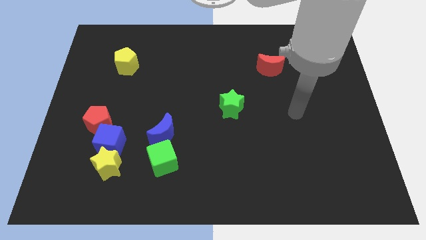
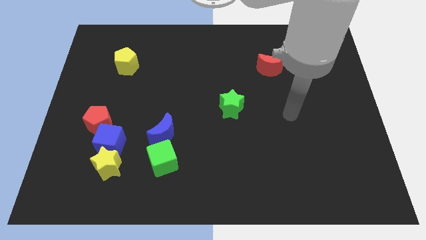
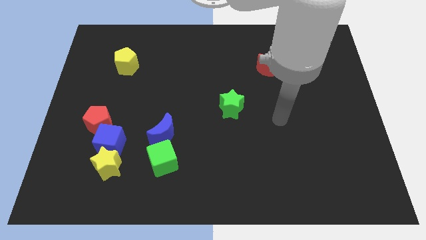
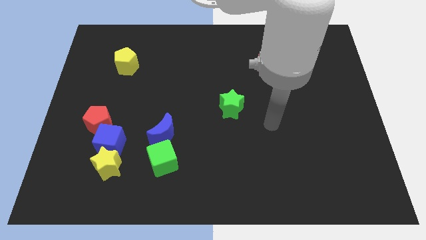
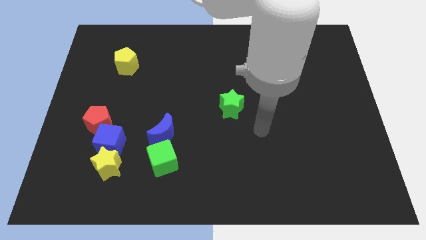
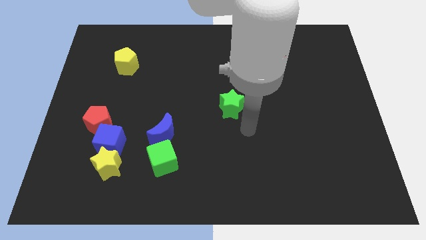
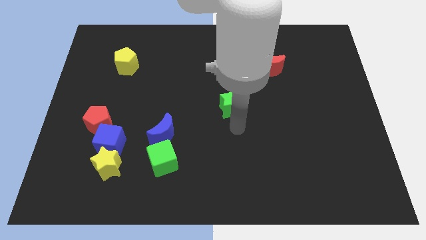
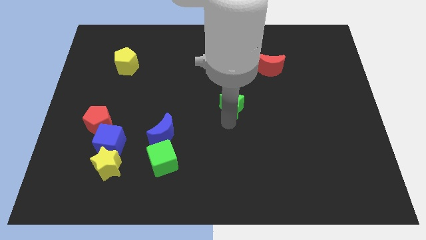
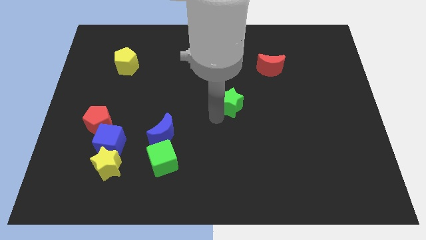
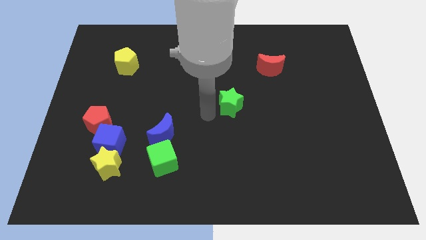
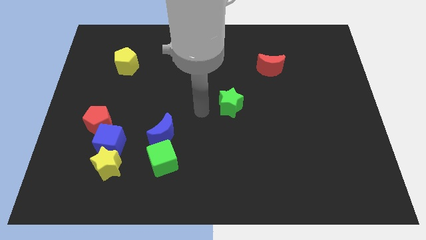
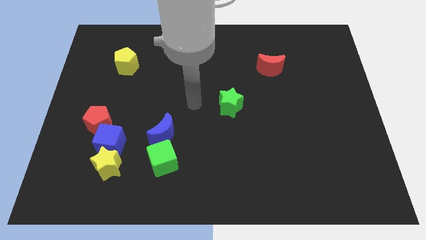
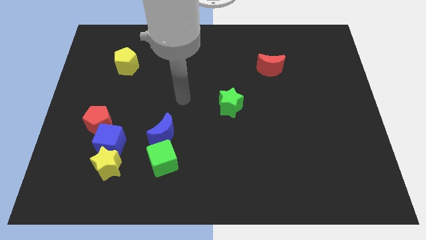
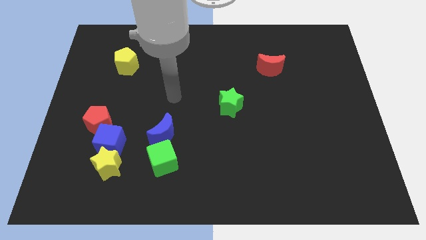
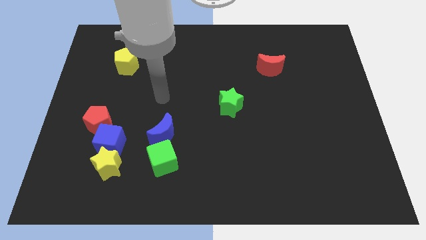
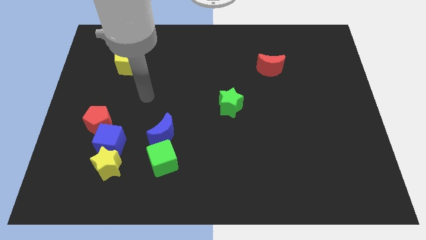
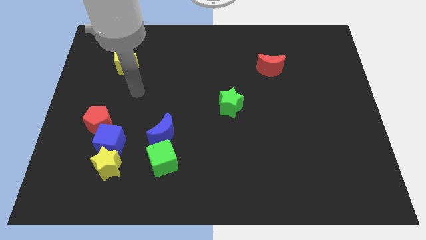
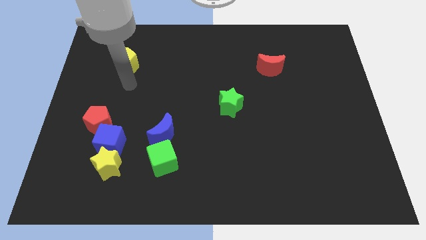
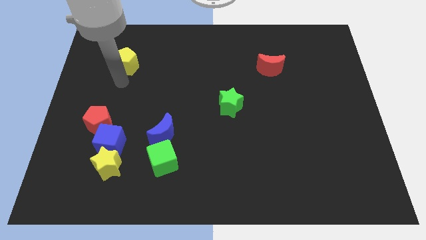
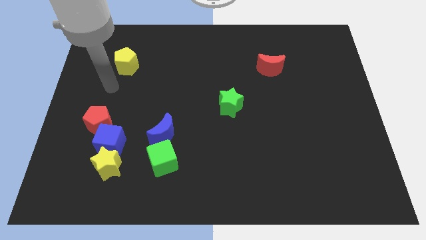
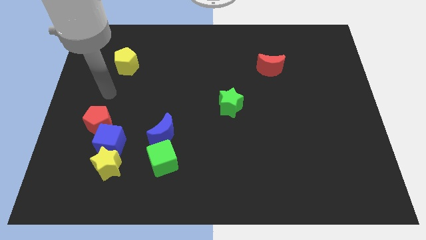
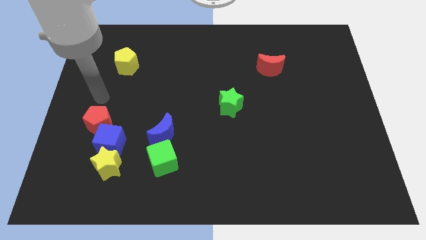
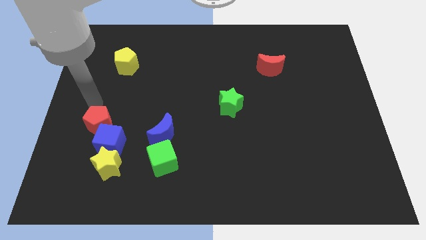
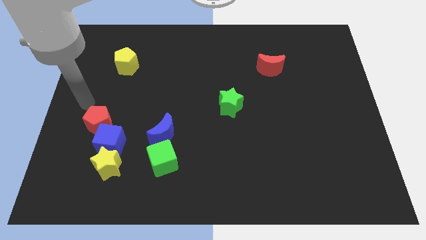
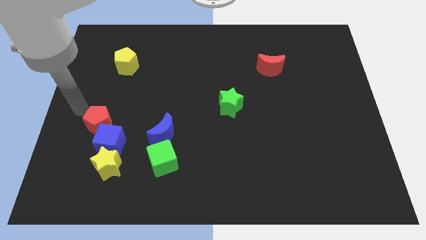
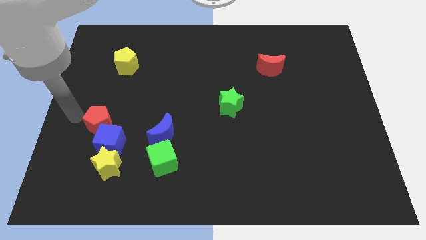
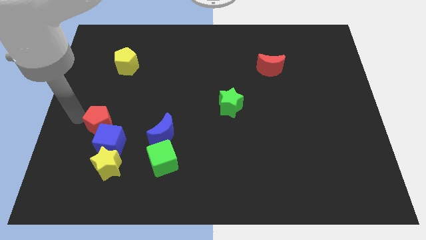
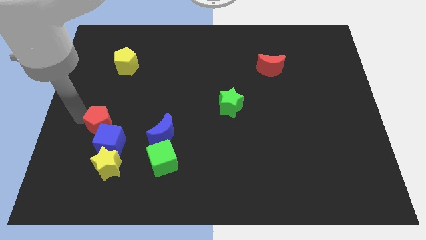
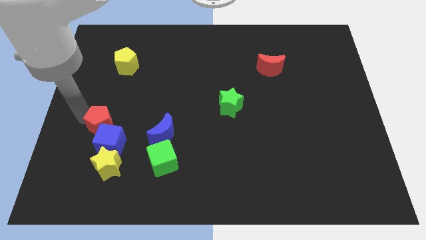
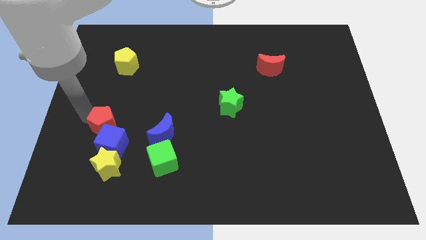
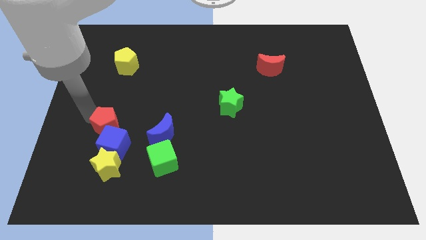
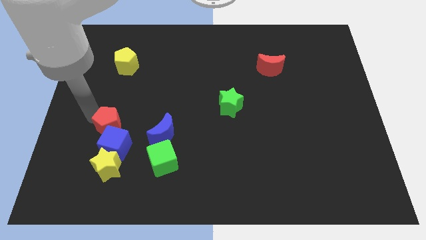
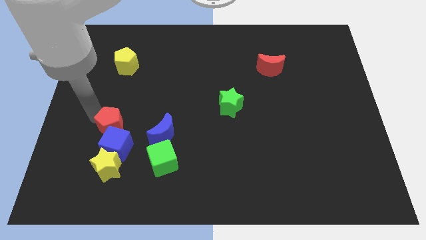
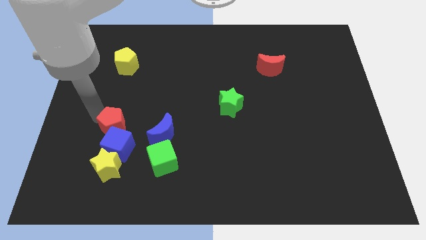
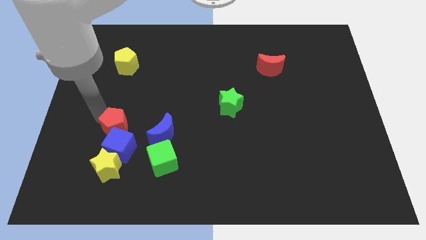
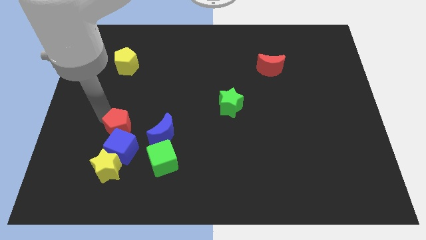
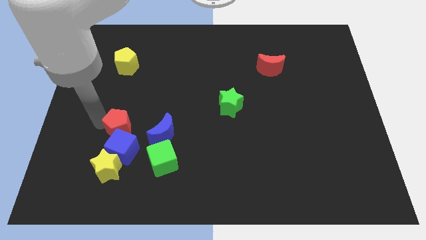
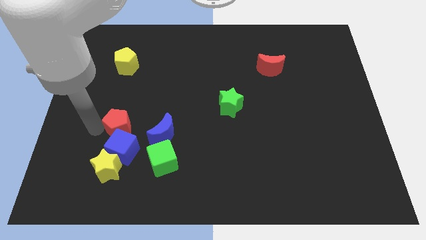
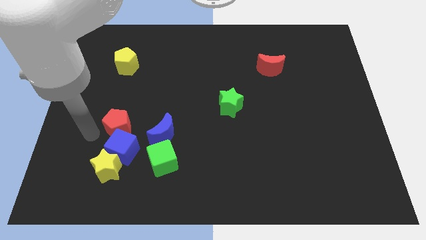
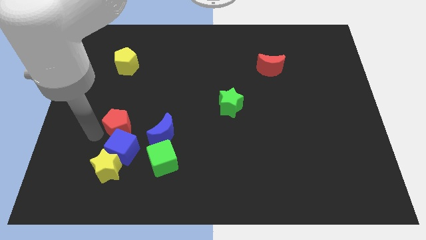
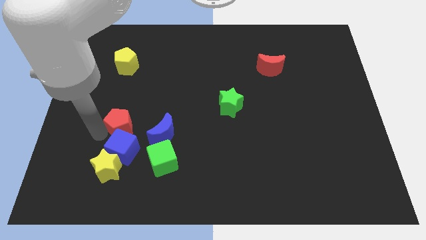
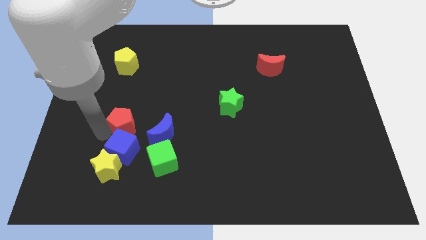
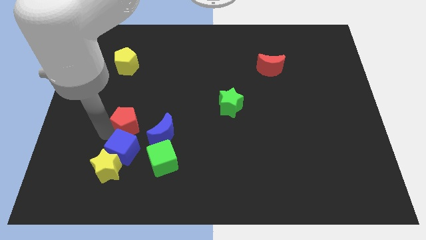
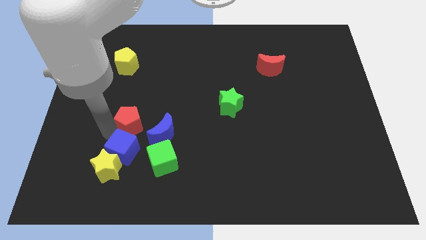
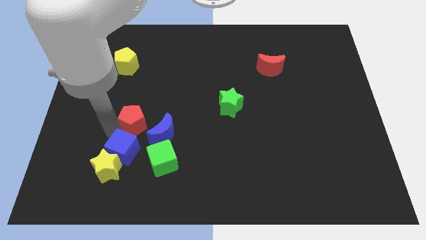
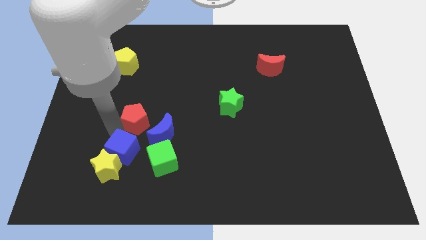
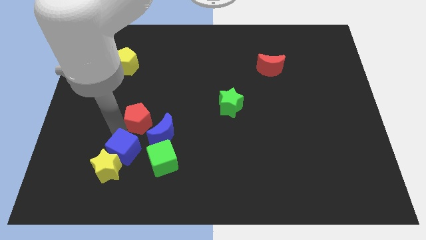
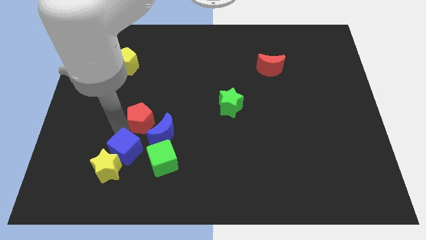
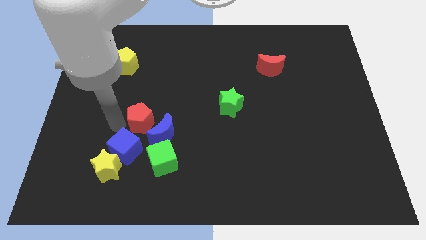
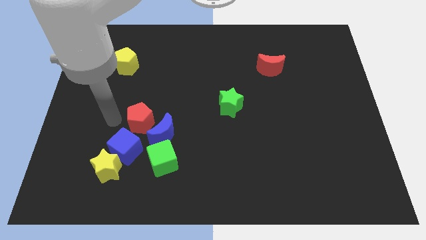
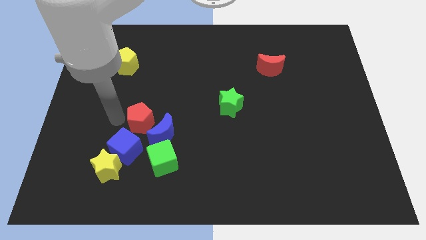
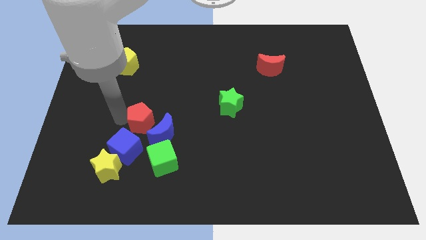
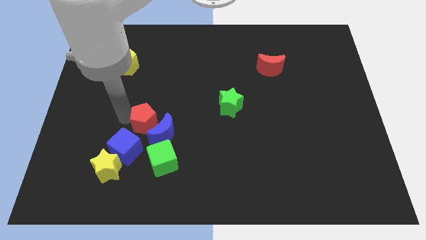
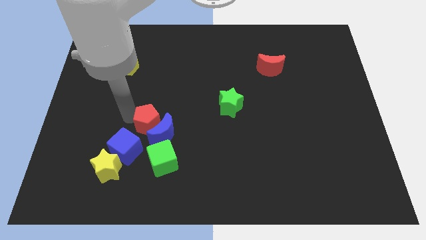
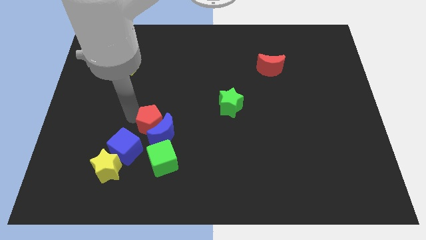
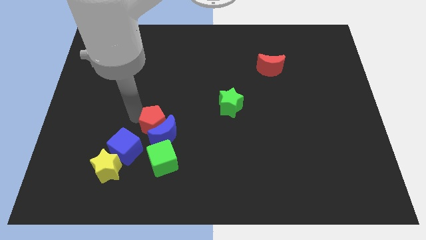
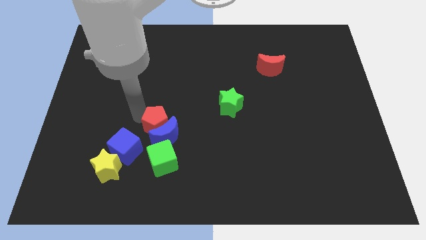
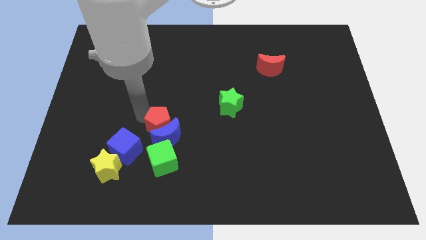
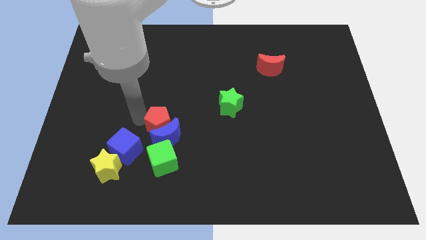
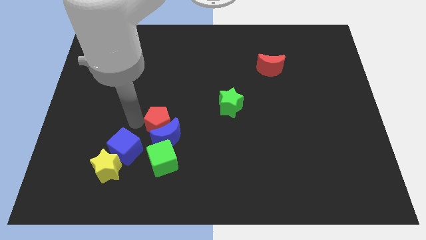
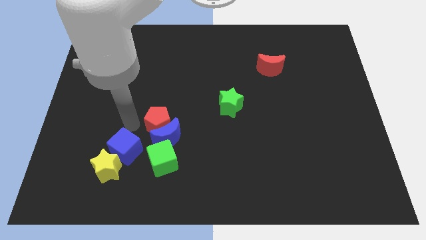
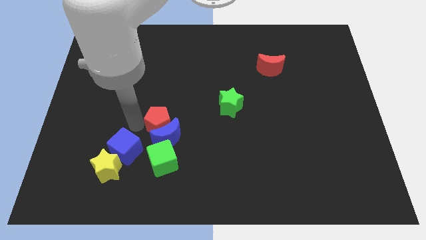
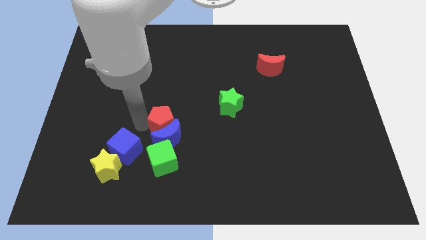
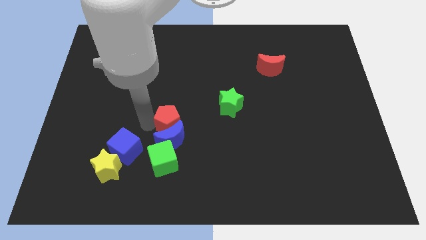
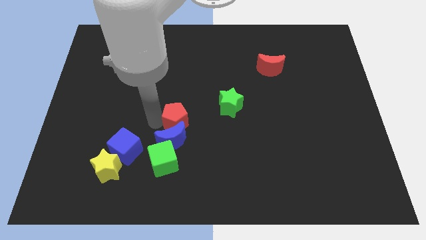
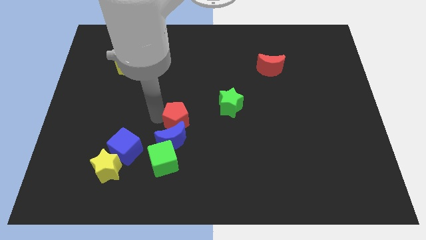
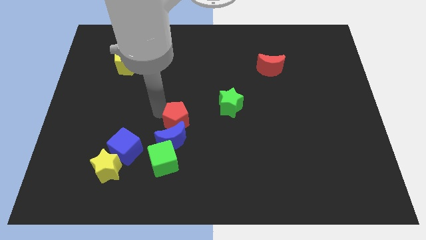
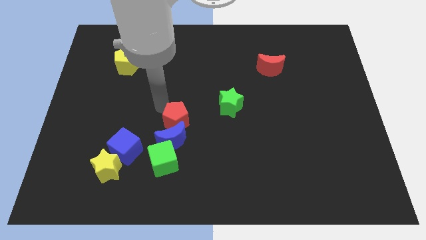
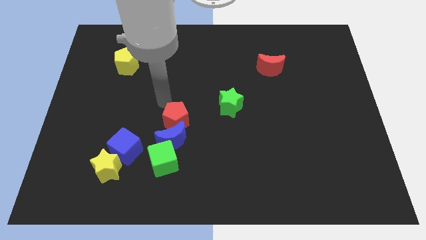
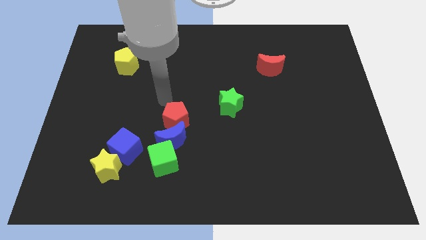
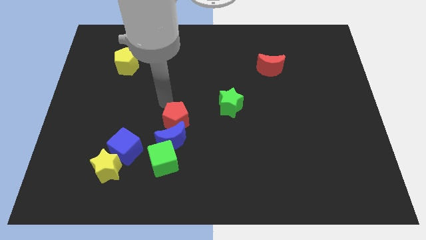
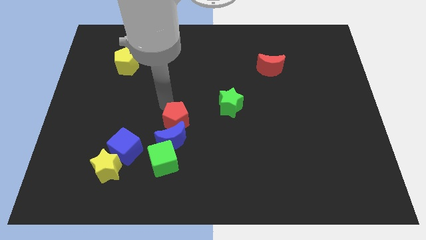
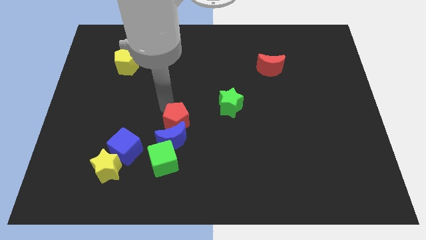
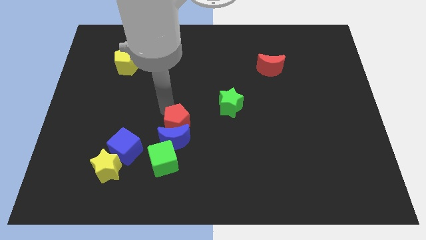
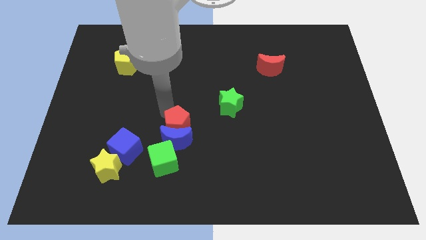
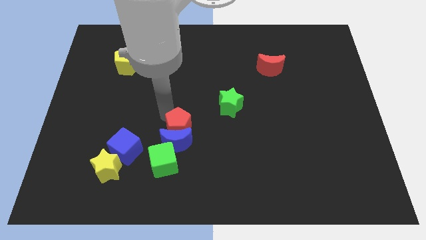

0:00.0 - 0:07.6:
put the red pentagon to the top right side of the green cube
